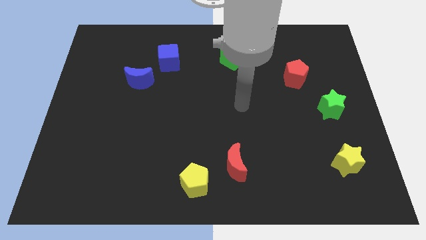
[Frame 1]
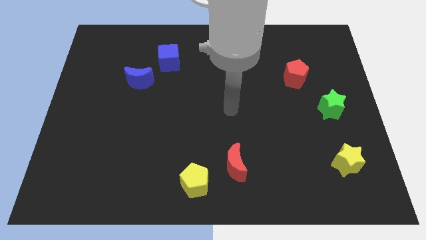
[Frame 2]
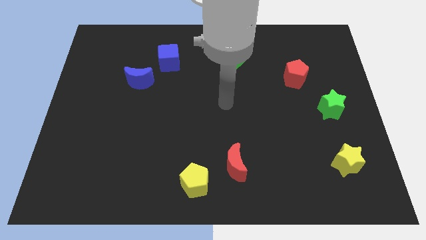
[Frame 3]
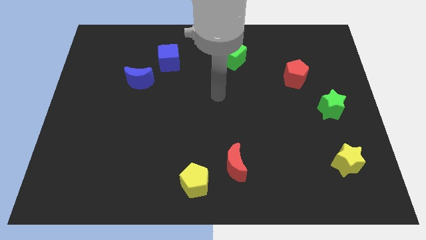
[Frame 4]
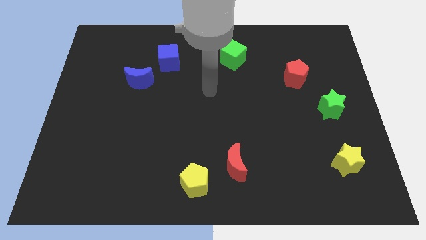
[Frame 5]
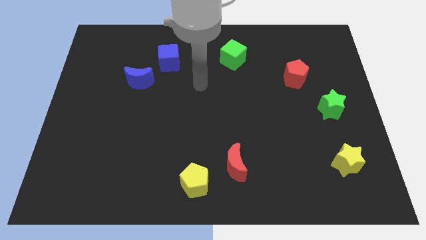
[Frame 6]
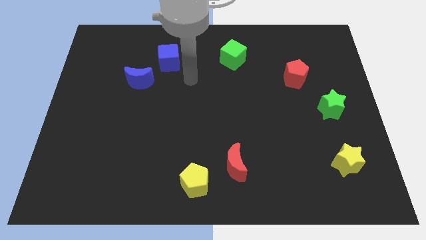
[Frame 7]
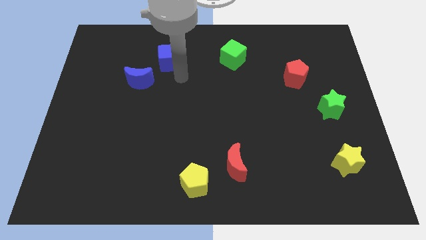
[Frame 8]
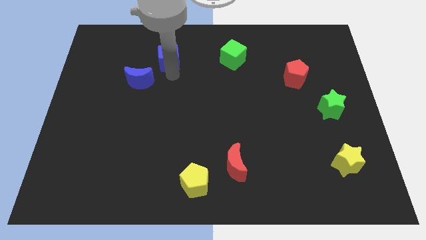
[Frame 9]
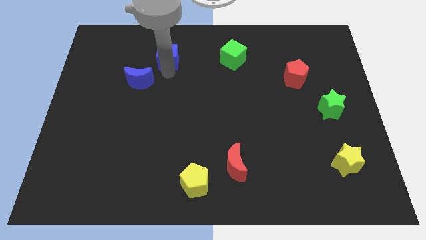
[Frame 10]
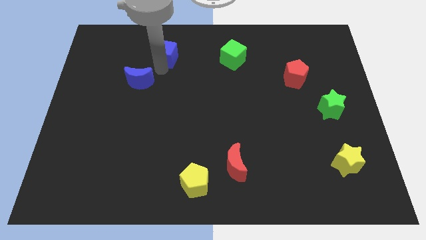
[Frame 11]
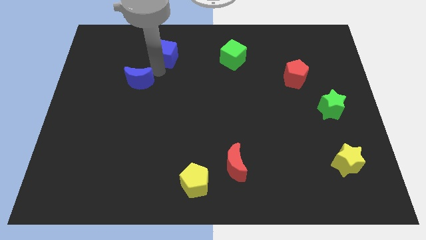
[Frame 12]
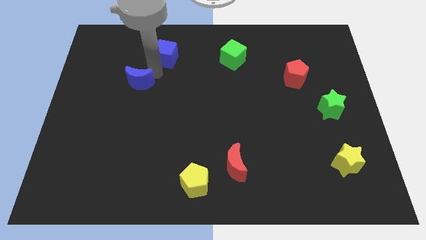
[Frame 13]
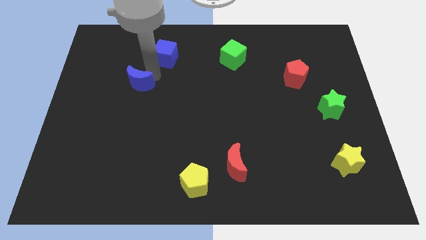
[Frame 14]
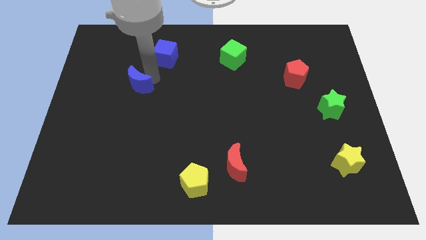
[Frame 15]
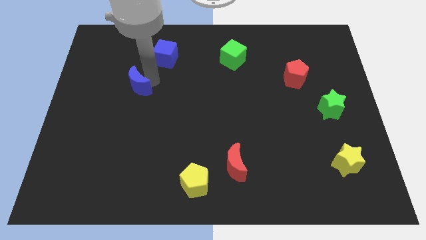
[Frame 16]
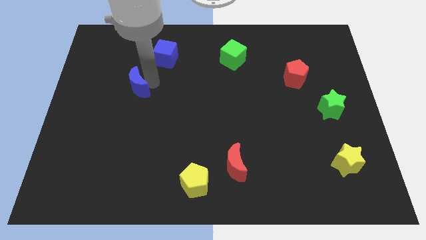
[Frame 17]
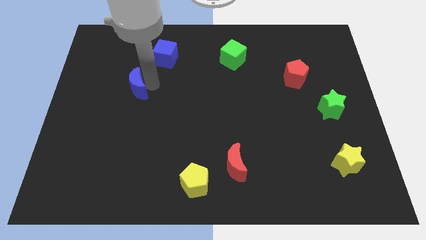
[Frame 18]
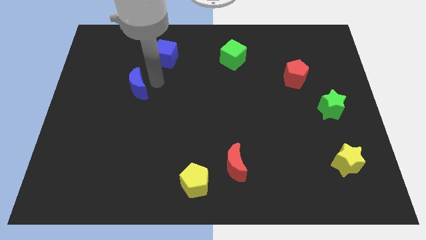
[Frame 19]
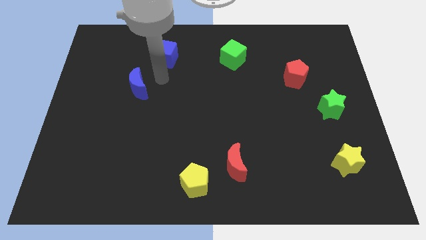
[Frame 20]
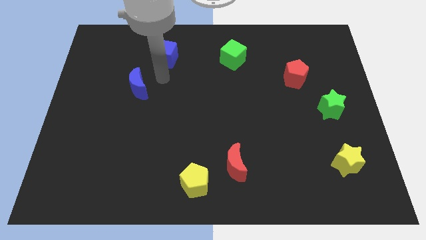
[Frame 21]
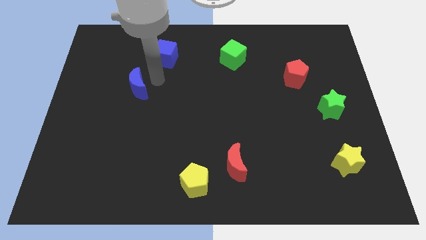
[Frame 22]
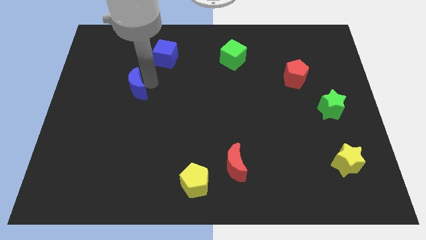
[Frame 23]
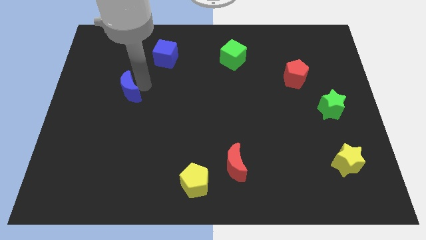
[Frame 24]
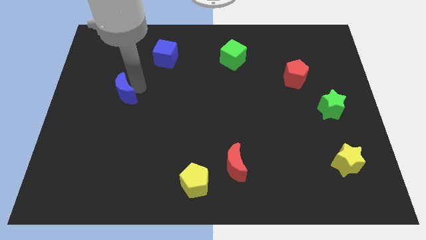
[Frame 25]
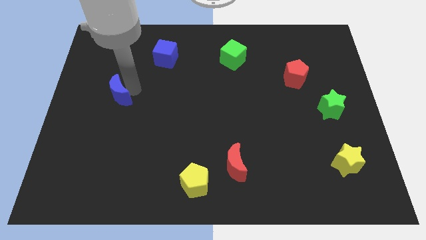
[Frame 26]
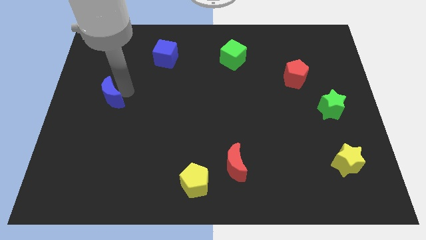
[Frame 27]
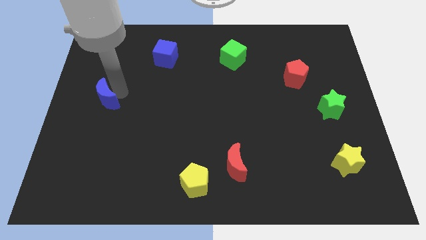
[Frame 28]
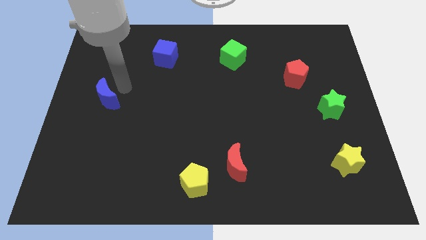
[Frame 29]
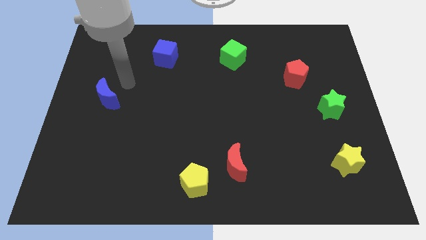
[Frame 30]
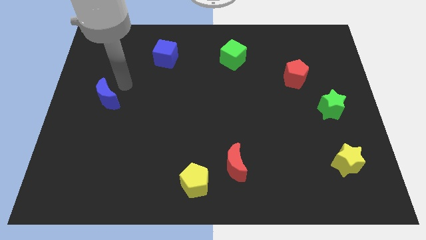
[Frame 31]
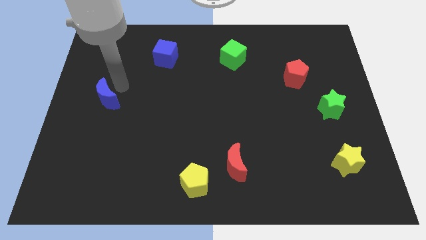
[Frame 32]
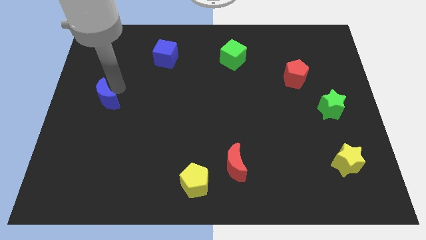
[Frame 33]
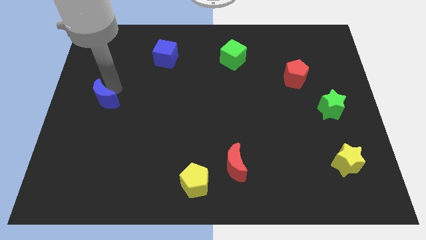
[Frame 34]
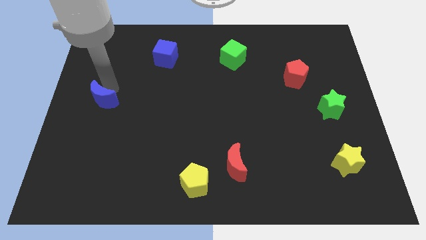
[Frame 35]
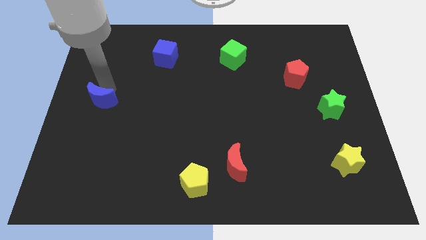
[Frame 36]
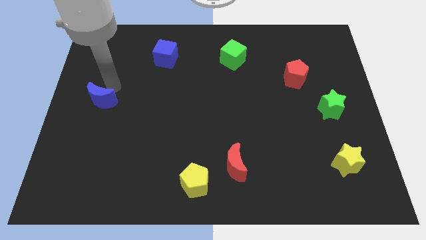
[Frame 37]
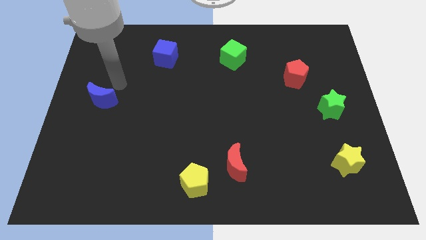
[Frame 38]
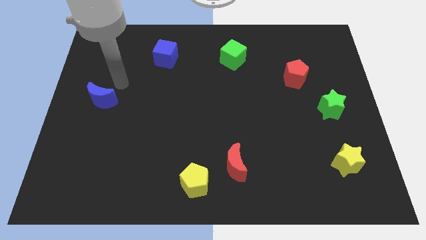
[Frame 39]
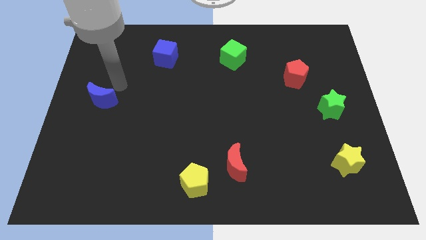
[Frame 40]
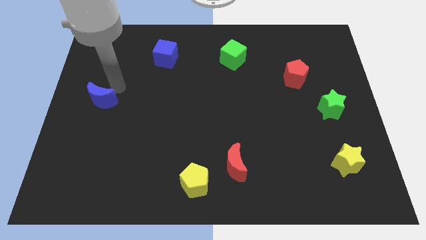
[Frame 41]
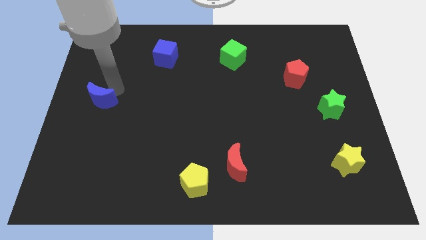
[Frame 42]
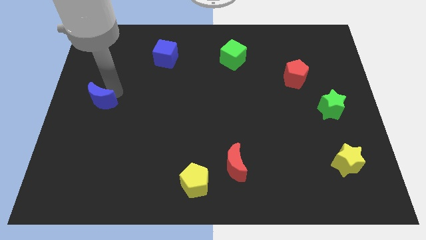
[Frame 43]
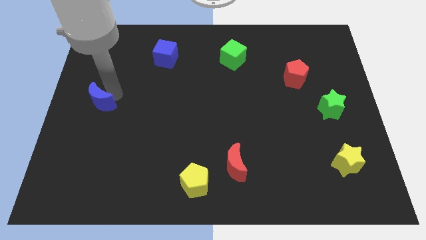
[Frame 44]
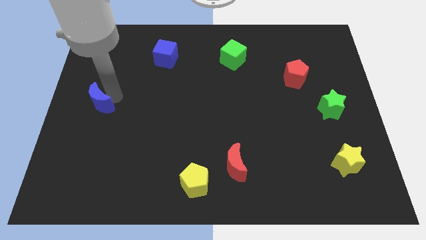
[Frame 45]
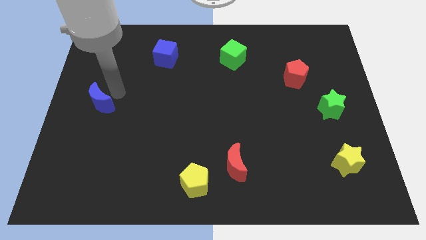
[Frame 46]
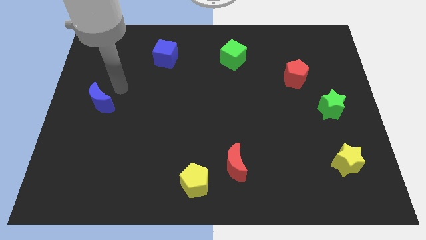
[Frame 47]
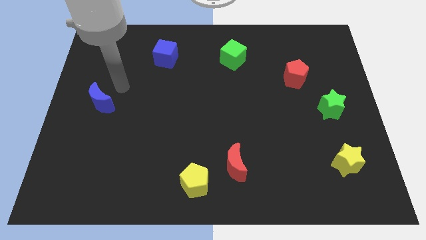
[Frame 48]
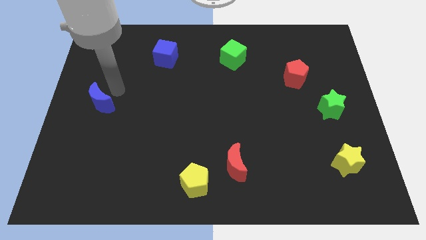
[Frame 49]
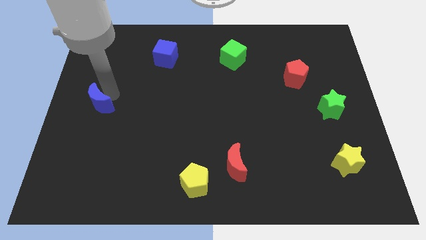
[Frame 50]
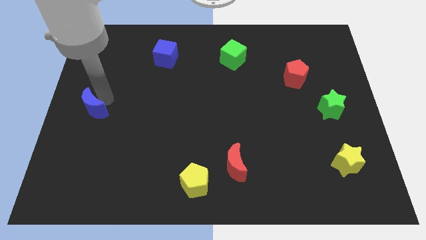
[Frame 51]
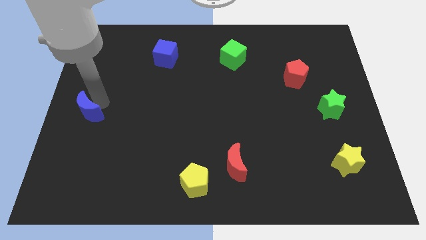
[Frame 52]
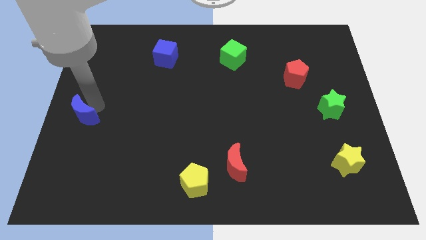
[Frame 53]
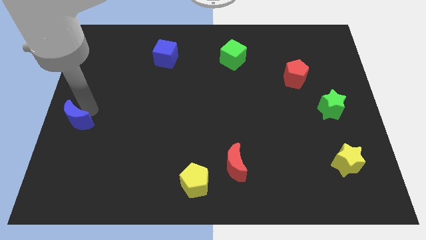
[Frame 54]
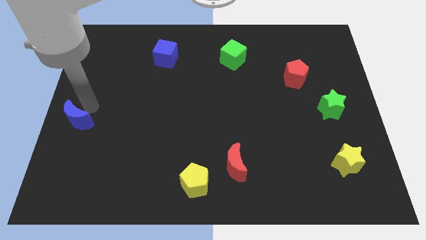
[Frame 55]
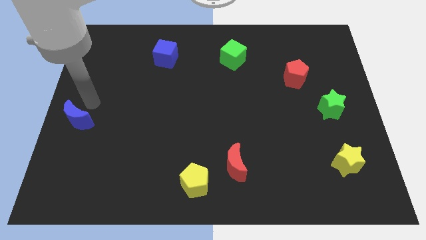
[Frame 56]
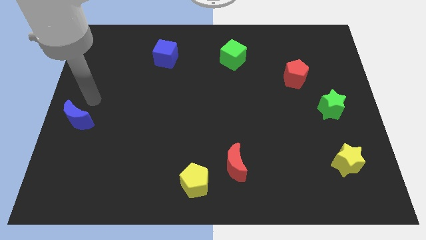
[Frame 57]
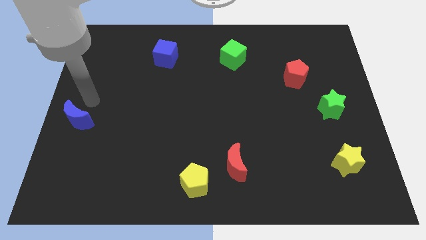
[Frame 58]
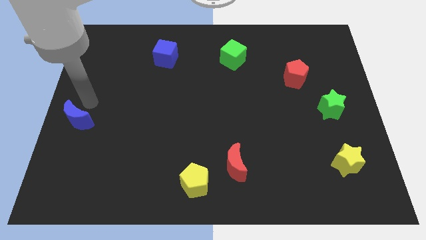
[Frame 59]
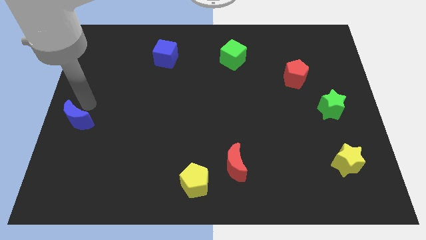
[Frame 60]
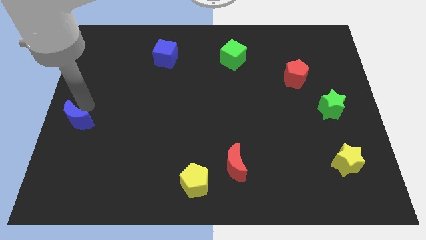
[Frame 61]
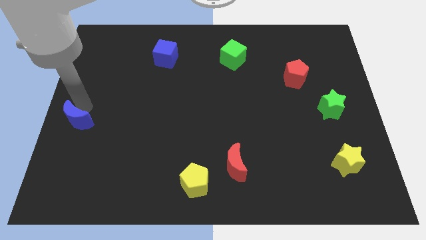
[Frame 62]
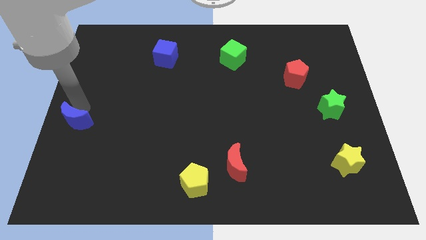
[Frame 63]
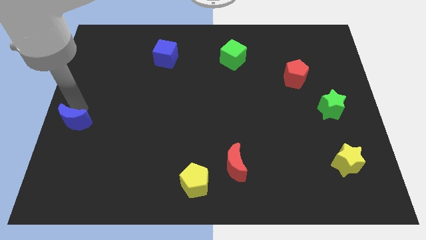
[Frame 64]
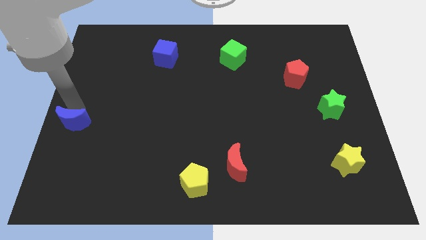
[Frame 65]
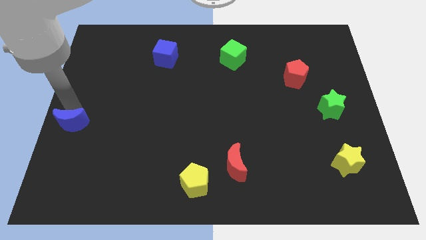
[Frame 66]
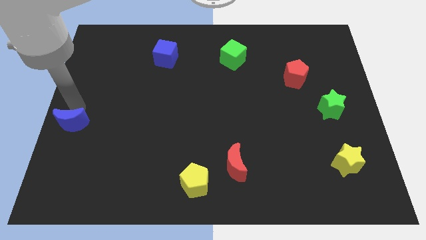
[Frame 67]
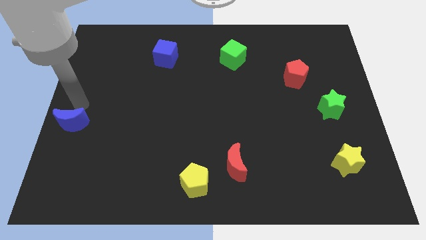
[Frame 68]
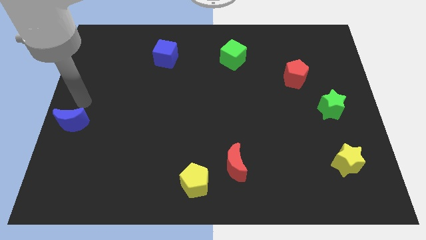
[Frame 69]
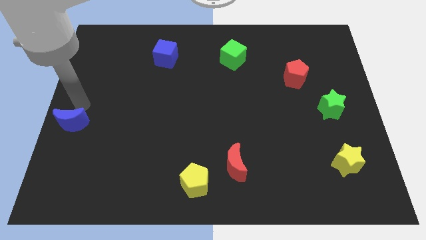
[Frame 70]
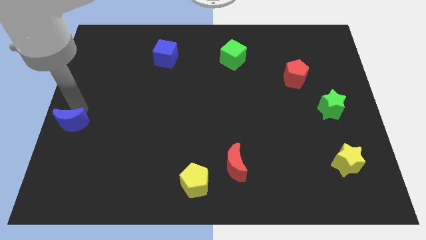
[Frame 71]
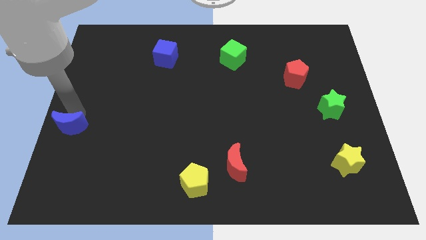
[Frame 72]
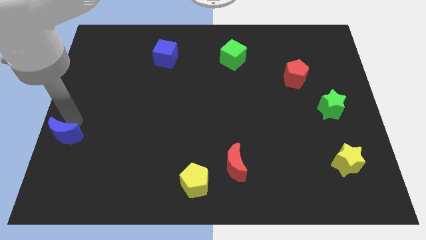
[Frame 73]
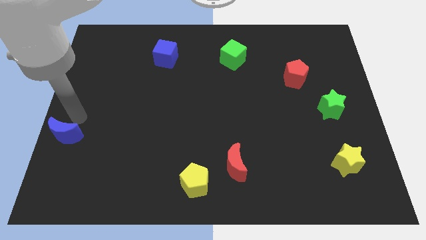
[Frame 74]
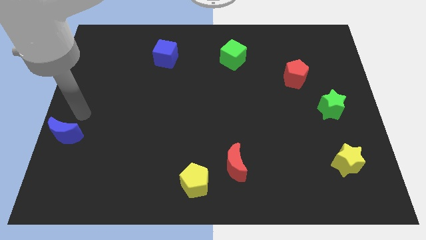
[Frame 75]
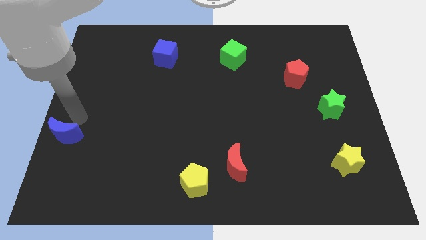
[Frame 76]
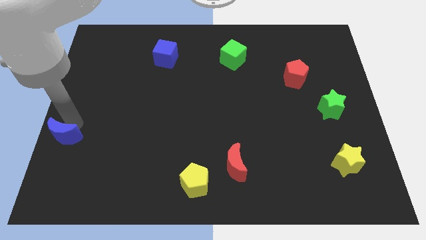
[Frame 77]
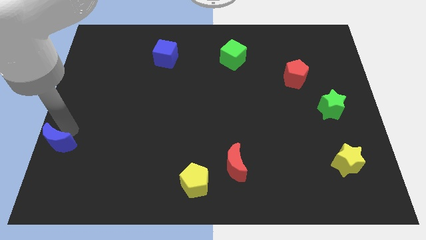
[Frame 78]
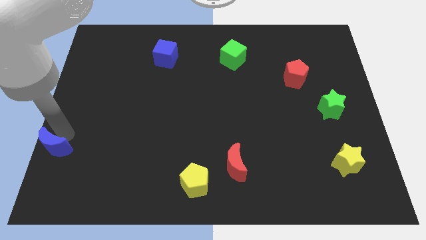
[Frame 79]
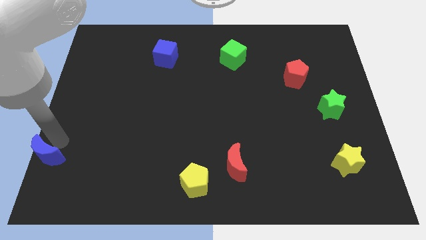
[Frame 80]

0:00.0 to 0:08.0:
move the blue moon to the lower left corner
